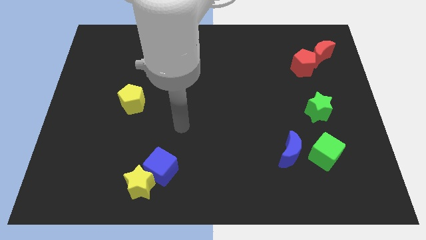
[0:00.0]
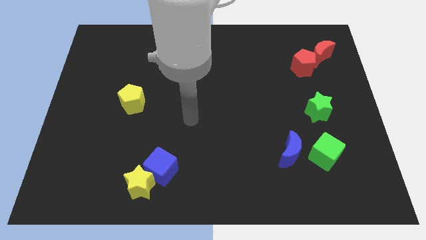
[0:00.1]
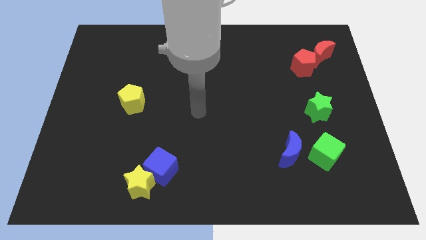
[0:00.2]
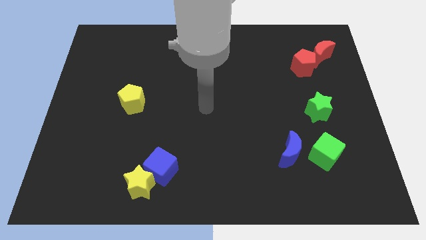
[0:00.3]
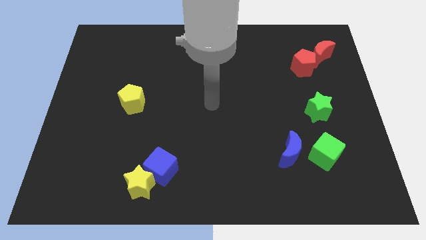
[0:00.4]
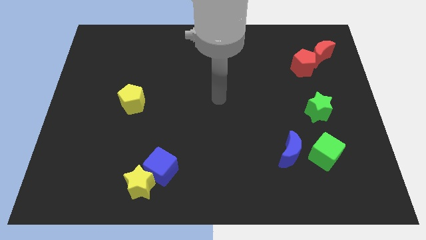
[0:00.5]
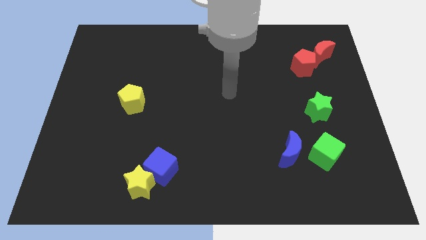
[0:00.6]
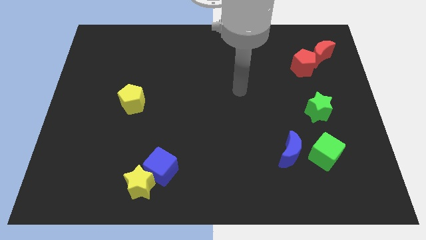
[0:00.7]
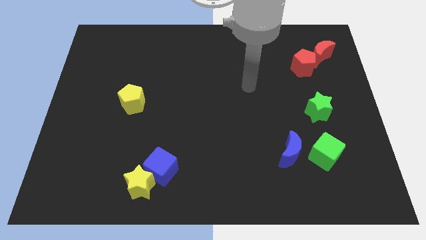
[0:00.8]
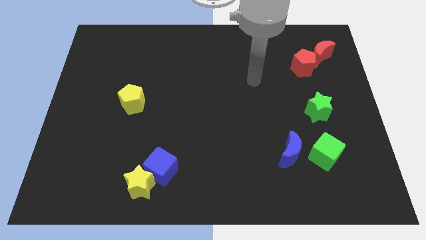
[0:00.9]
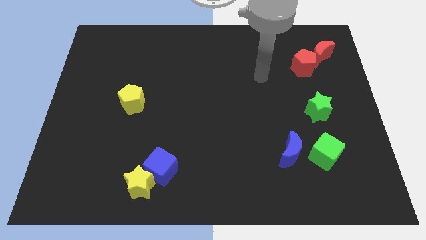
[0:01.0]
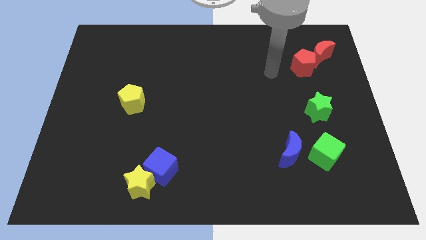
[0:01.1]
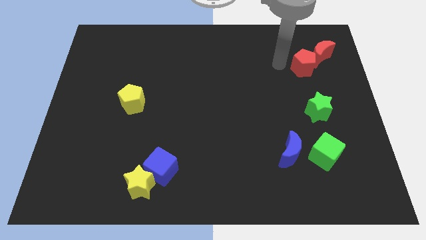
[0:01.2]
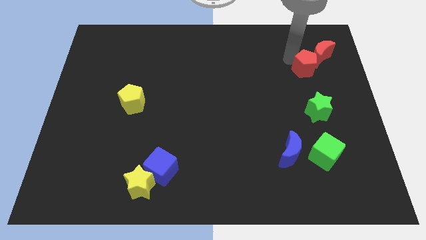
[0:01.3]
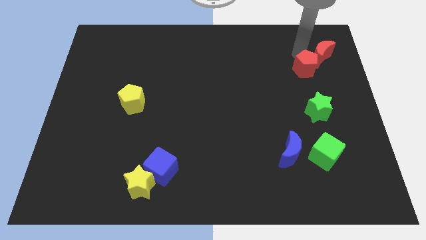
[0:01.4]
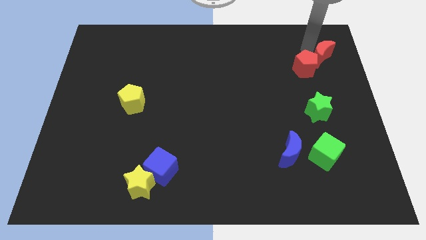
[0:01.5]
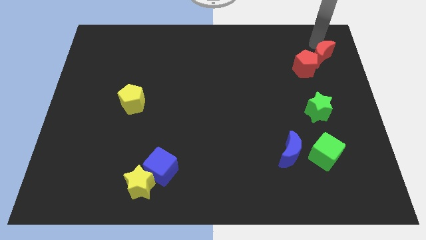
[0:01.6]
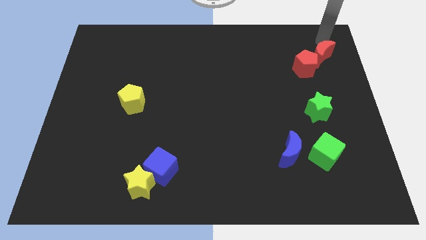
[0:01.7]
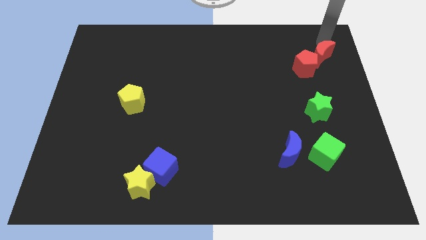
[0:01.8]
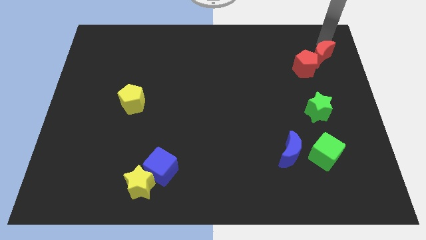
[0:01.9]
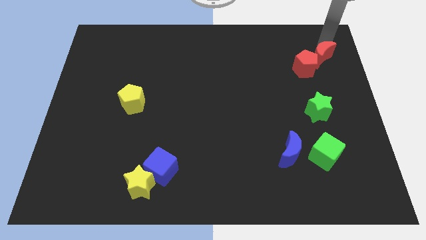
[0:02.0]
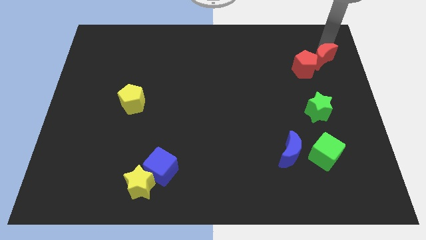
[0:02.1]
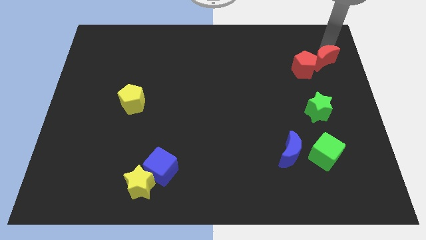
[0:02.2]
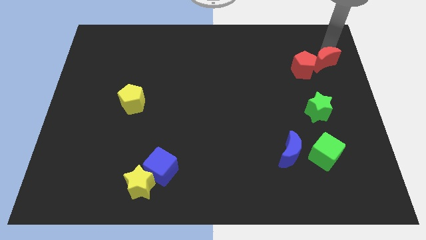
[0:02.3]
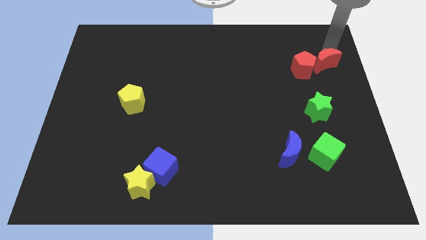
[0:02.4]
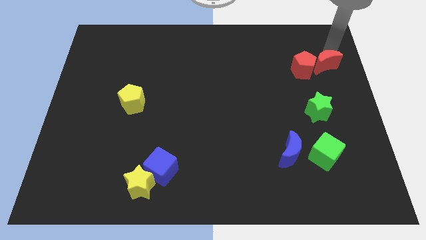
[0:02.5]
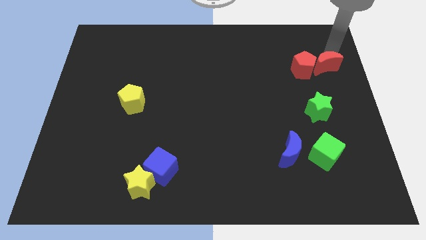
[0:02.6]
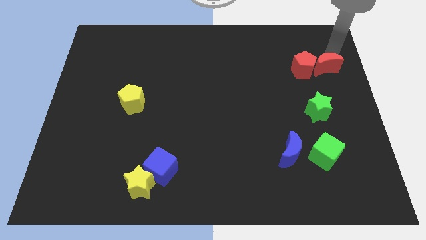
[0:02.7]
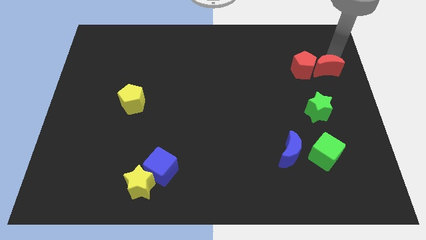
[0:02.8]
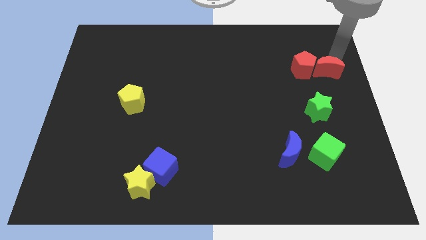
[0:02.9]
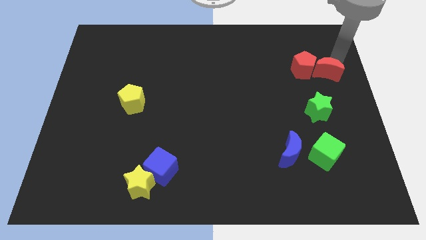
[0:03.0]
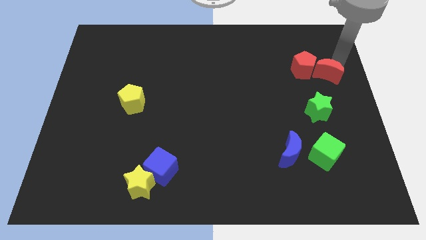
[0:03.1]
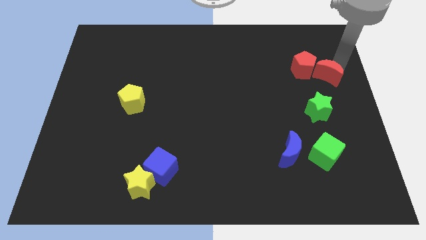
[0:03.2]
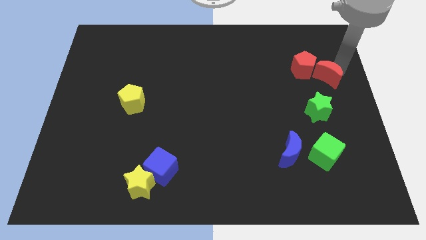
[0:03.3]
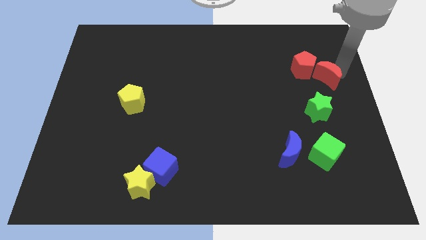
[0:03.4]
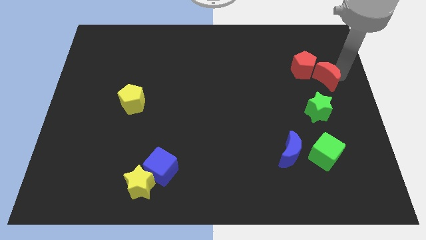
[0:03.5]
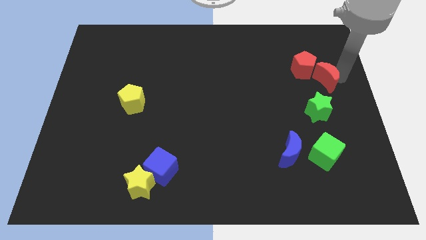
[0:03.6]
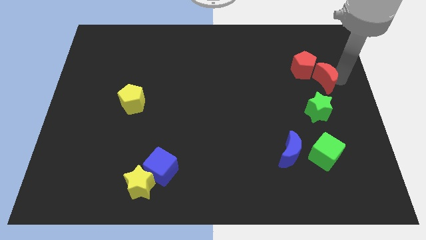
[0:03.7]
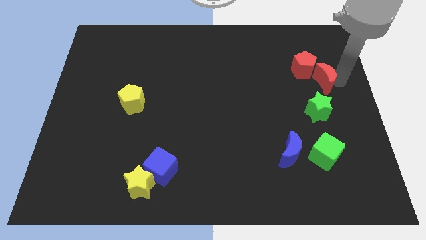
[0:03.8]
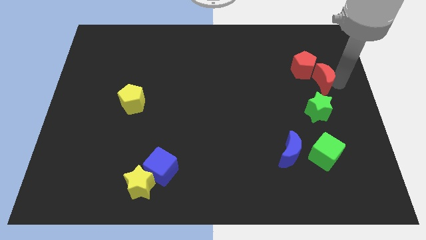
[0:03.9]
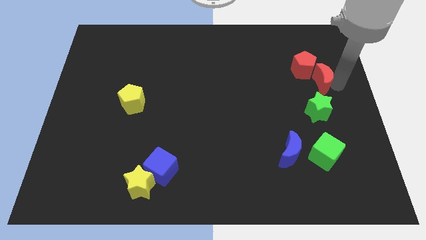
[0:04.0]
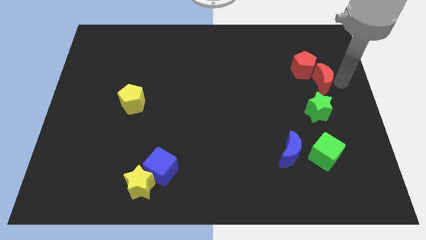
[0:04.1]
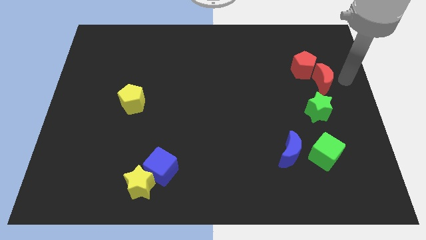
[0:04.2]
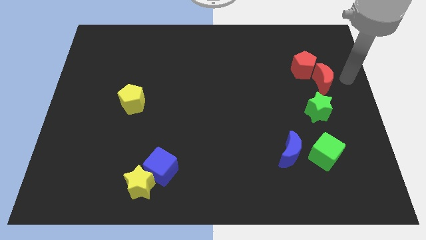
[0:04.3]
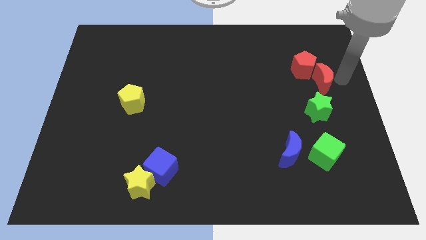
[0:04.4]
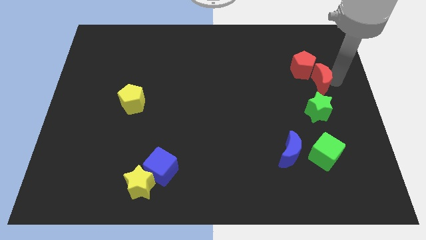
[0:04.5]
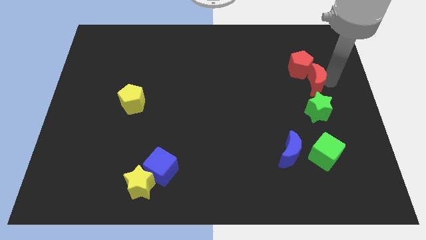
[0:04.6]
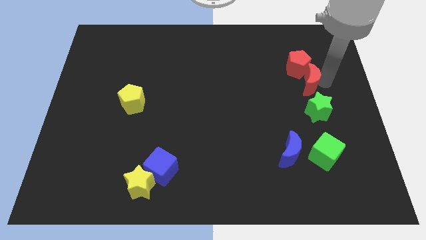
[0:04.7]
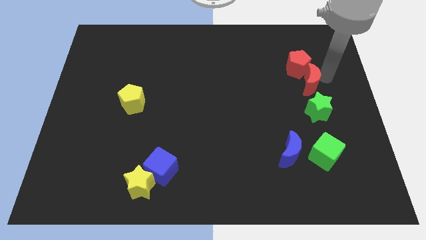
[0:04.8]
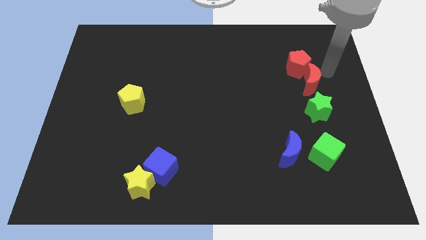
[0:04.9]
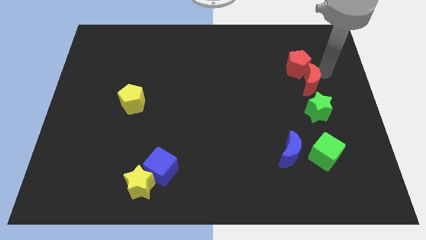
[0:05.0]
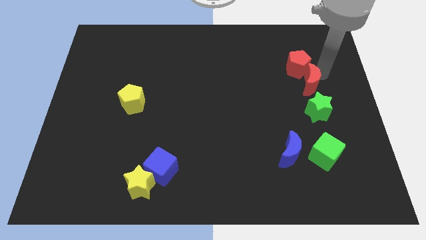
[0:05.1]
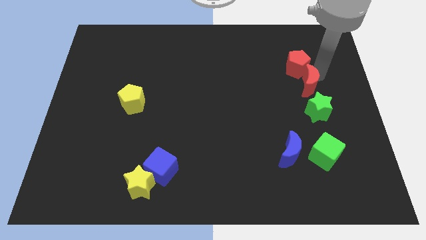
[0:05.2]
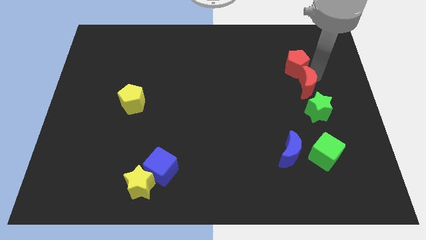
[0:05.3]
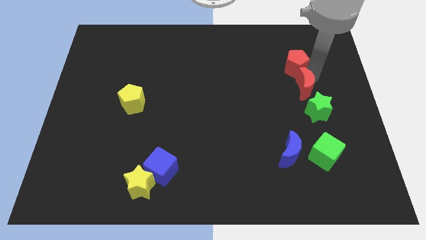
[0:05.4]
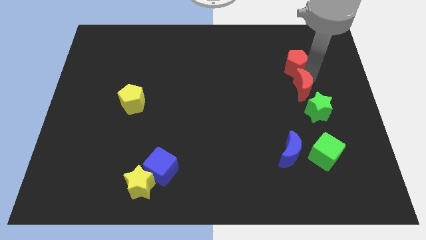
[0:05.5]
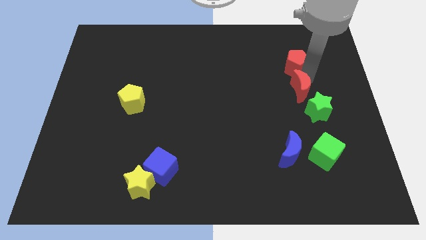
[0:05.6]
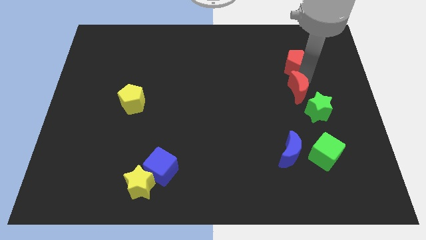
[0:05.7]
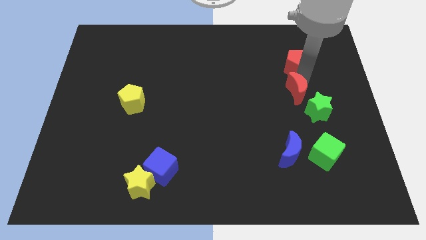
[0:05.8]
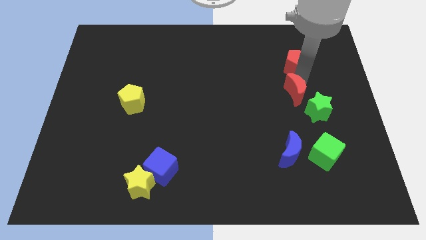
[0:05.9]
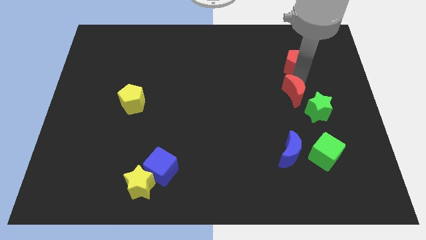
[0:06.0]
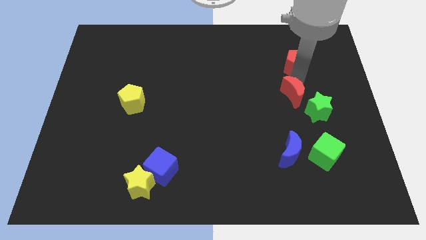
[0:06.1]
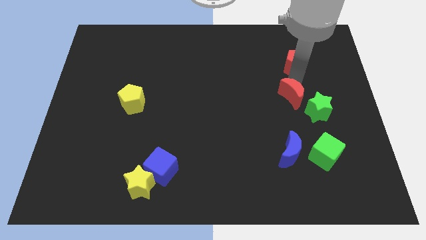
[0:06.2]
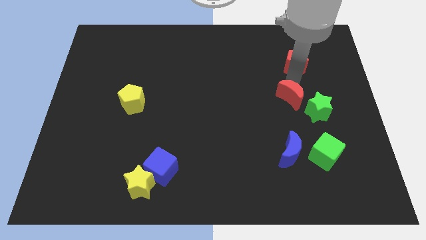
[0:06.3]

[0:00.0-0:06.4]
put the red moon to the top side of the blue moon

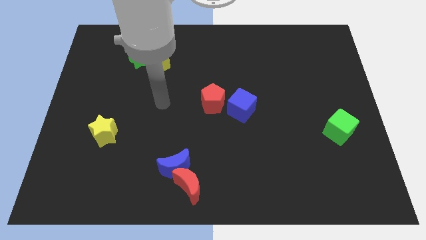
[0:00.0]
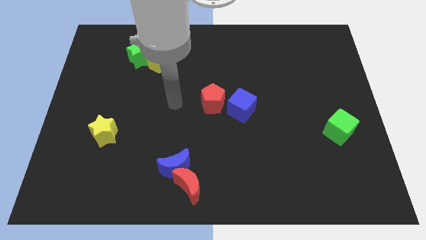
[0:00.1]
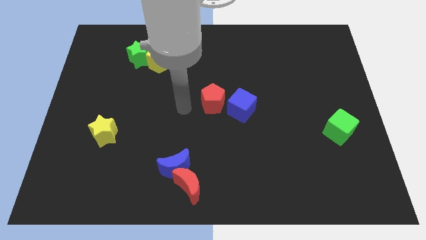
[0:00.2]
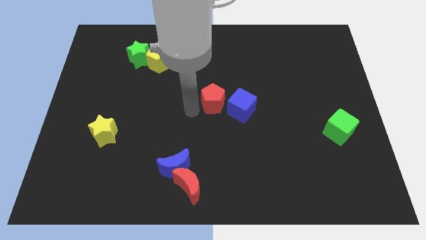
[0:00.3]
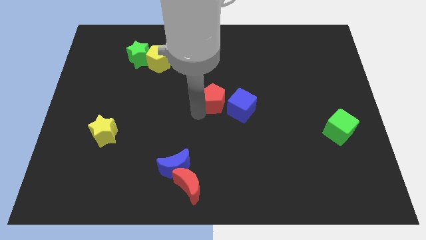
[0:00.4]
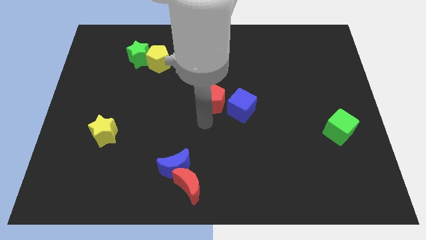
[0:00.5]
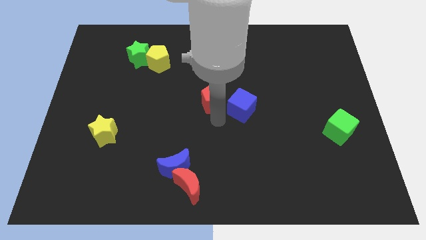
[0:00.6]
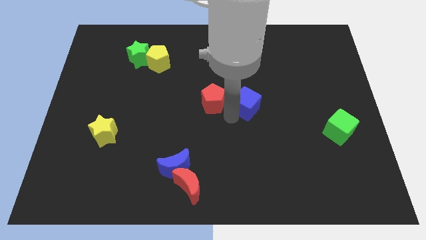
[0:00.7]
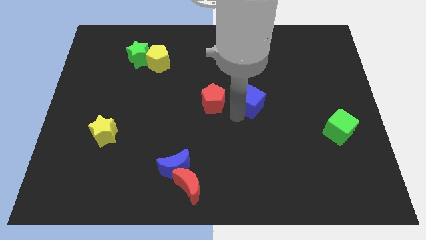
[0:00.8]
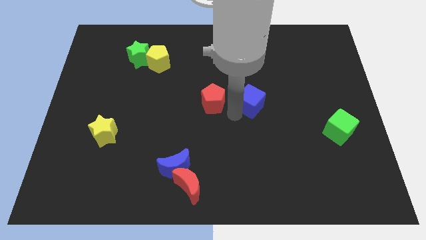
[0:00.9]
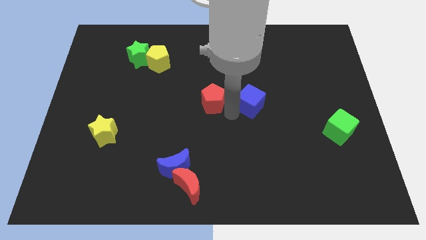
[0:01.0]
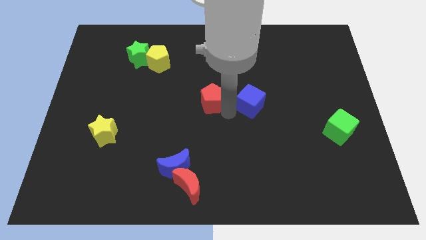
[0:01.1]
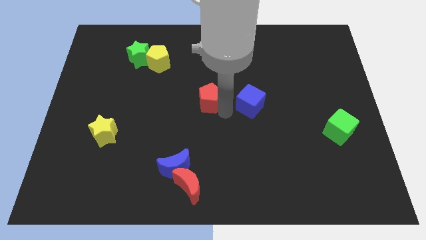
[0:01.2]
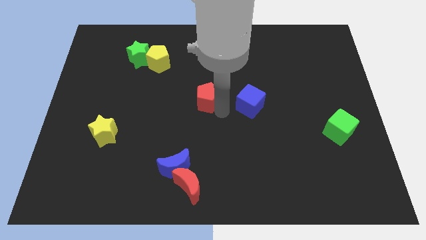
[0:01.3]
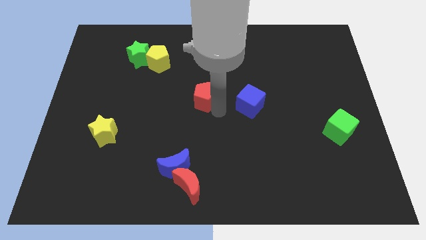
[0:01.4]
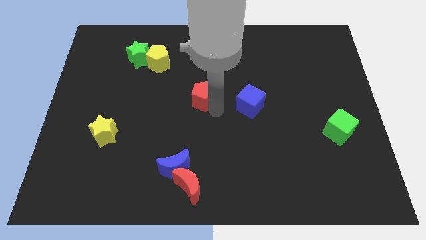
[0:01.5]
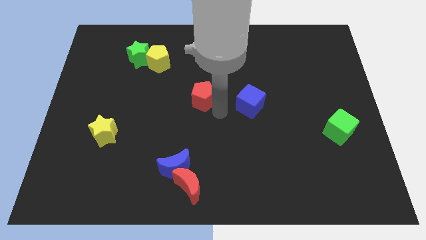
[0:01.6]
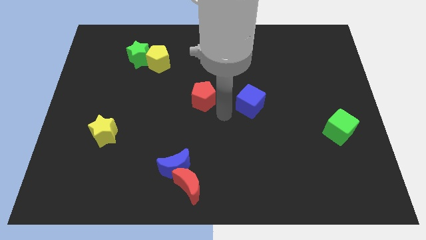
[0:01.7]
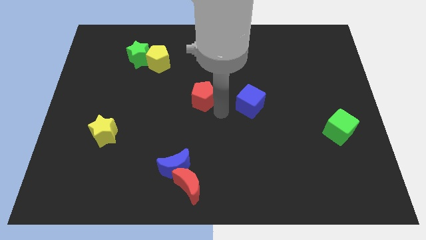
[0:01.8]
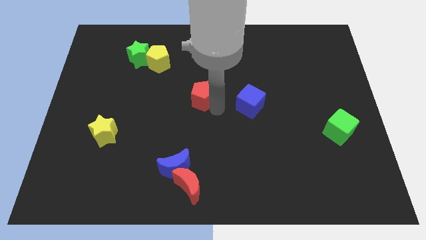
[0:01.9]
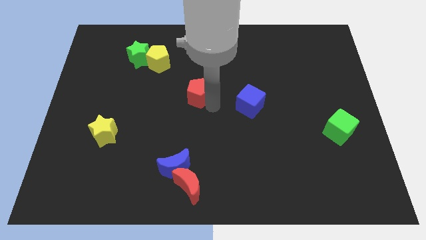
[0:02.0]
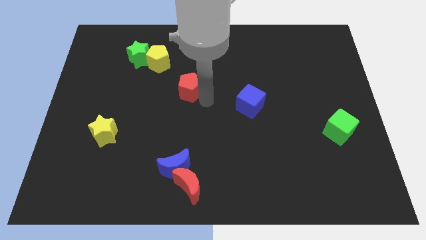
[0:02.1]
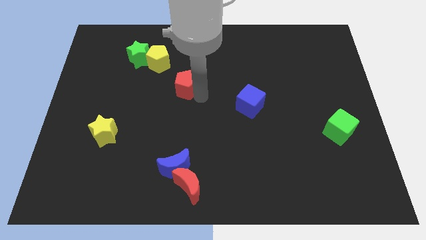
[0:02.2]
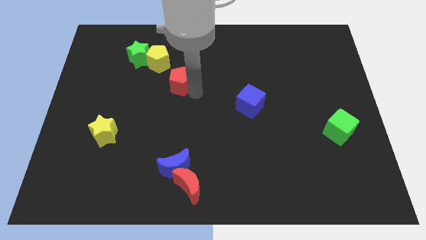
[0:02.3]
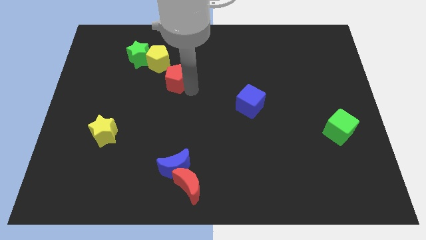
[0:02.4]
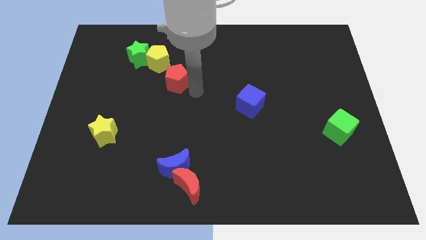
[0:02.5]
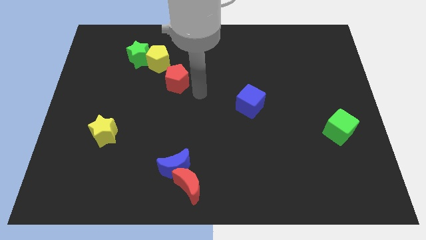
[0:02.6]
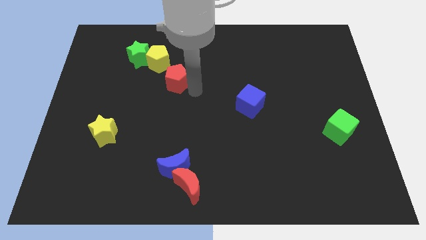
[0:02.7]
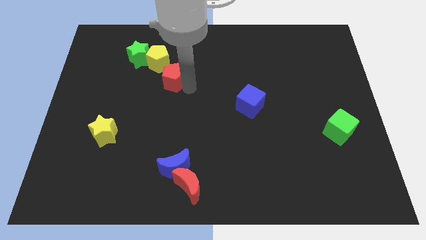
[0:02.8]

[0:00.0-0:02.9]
push the red pentagon to the bottom right side of the green star
